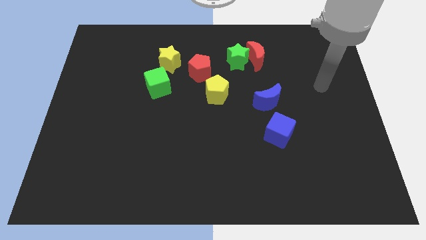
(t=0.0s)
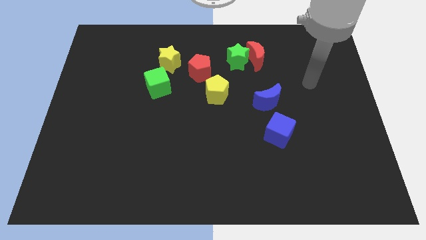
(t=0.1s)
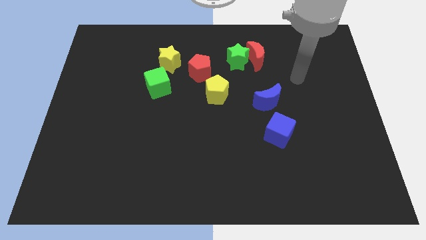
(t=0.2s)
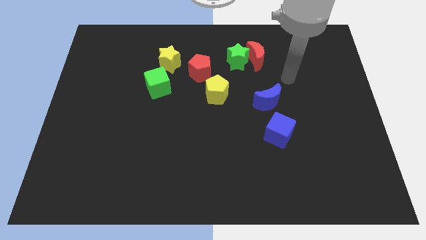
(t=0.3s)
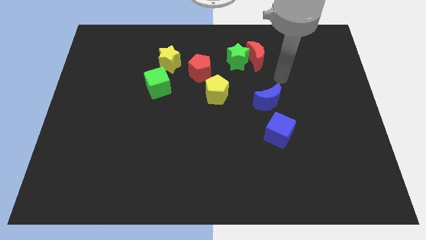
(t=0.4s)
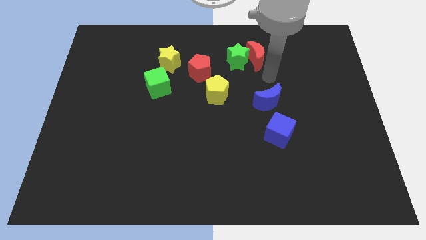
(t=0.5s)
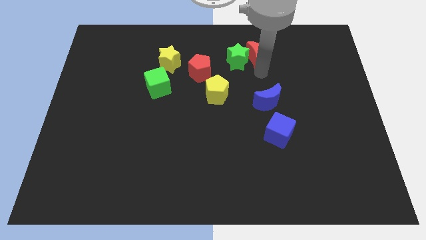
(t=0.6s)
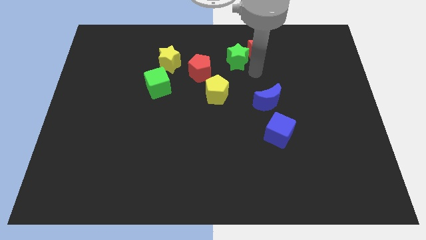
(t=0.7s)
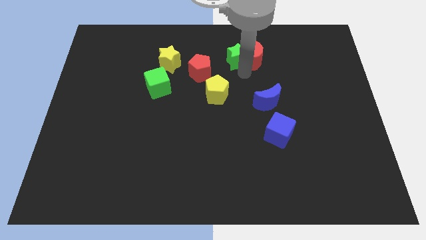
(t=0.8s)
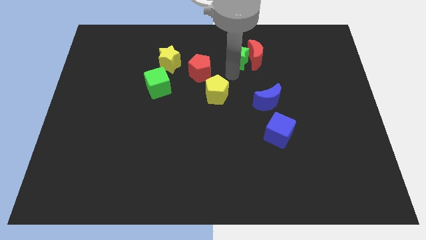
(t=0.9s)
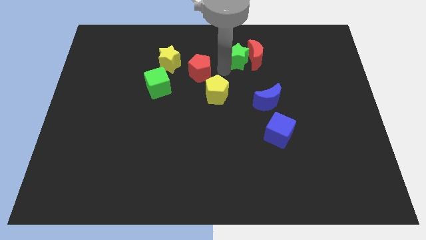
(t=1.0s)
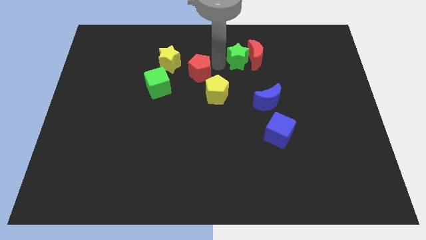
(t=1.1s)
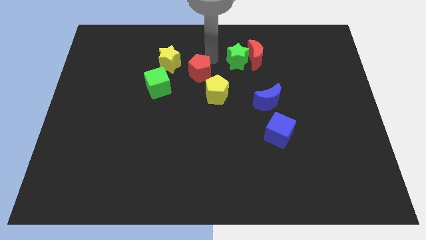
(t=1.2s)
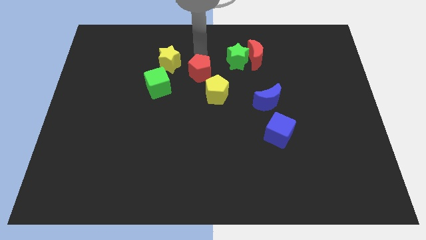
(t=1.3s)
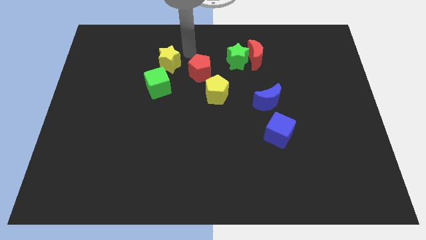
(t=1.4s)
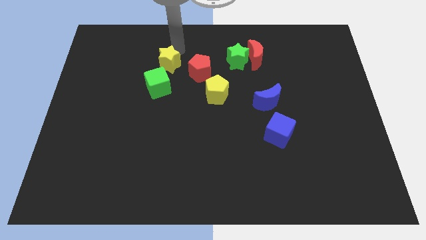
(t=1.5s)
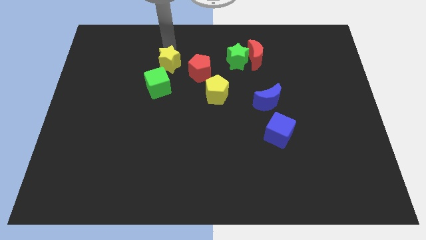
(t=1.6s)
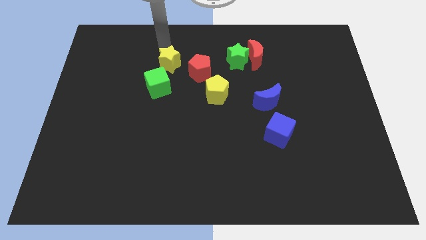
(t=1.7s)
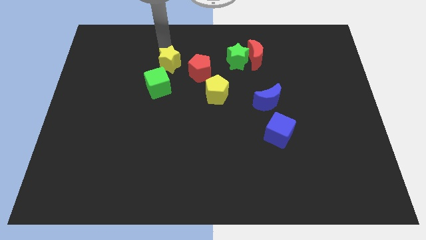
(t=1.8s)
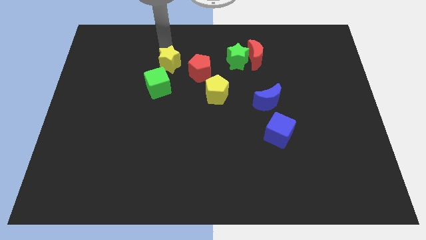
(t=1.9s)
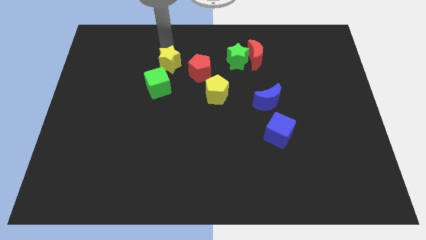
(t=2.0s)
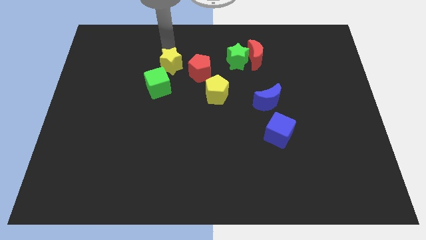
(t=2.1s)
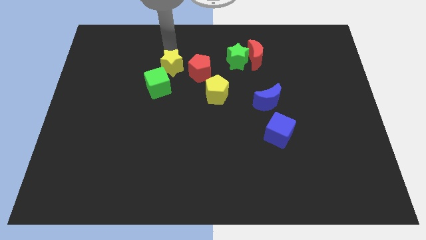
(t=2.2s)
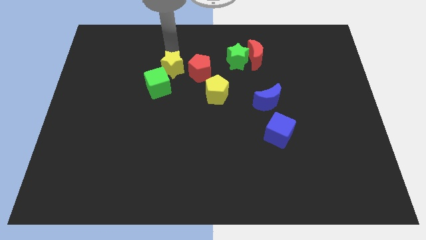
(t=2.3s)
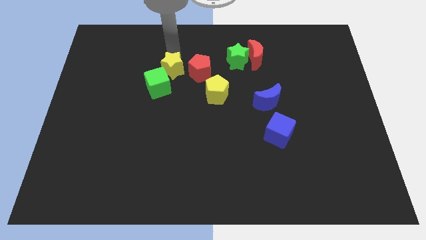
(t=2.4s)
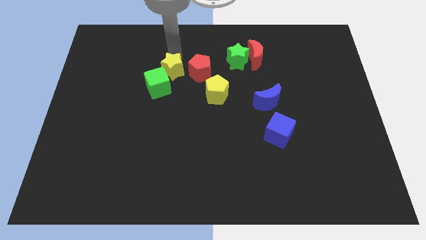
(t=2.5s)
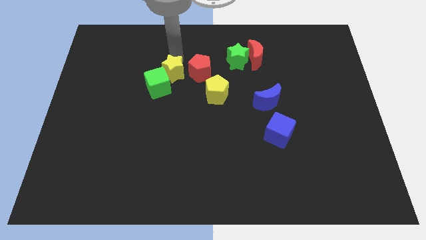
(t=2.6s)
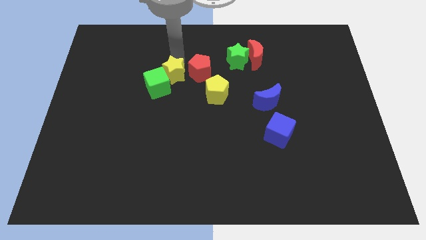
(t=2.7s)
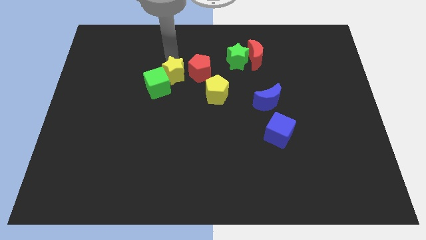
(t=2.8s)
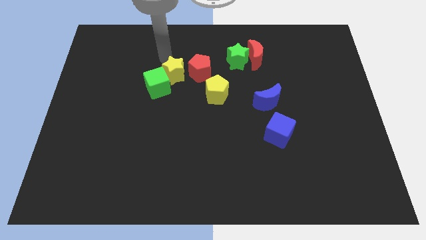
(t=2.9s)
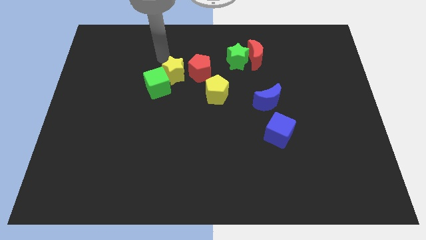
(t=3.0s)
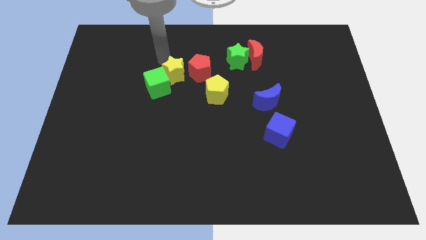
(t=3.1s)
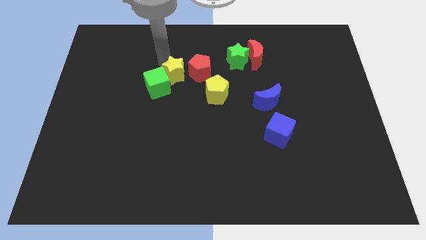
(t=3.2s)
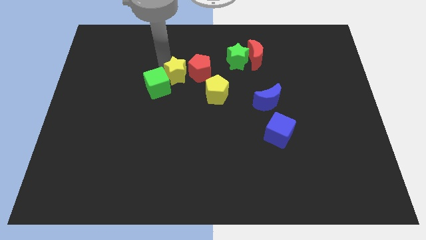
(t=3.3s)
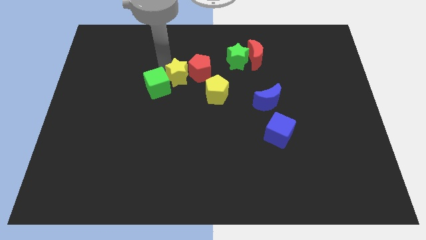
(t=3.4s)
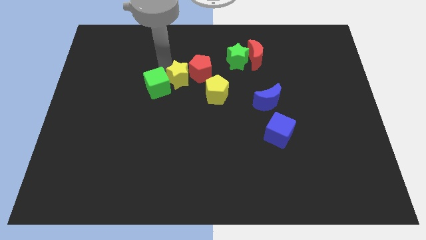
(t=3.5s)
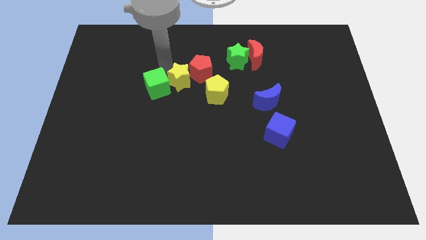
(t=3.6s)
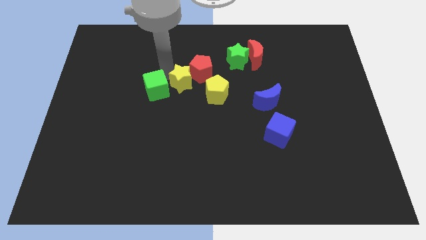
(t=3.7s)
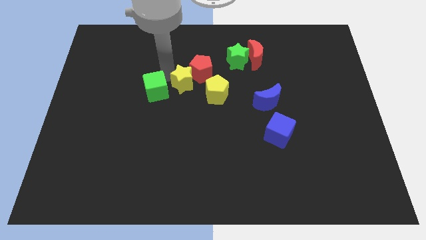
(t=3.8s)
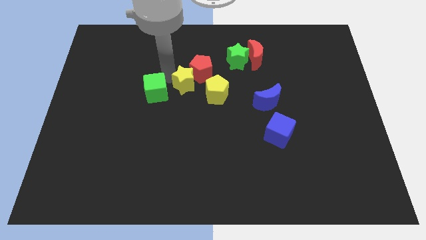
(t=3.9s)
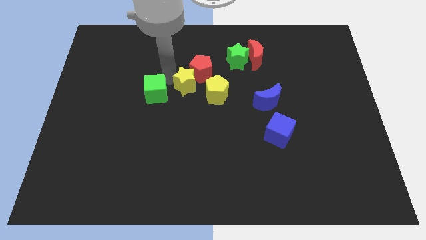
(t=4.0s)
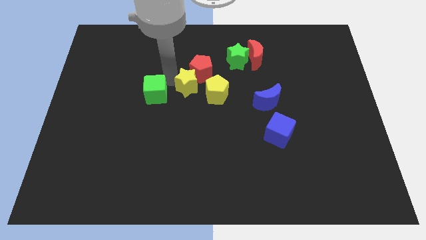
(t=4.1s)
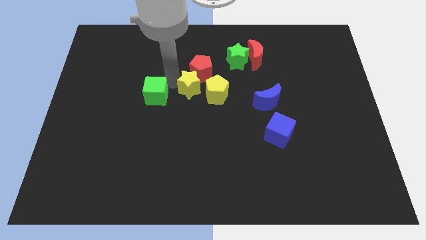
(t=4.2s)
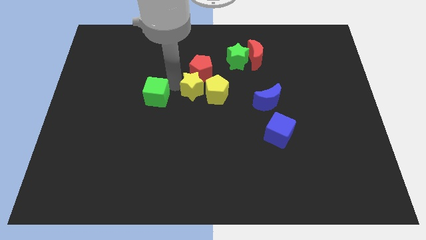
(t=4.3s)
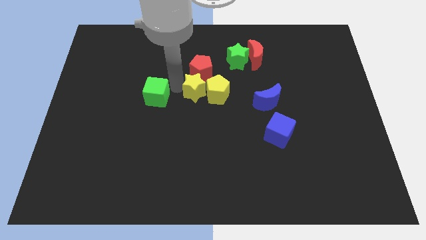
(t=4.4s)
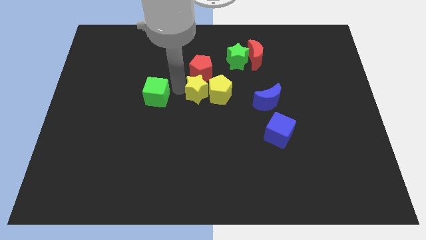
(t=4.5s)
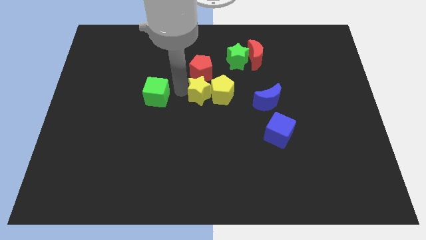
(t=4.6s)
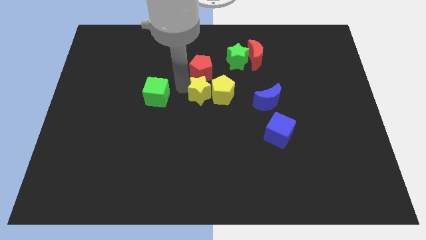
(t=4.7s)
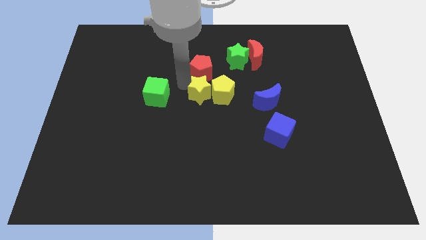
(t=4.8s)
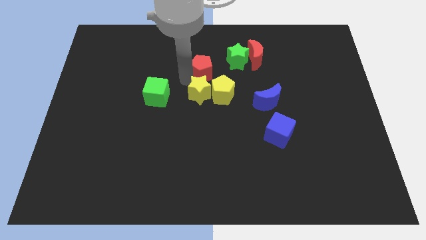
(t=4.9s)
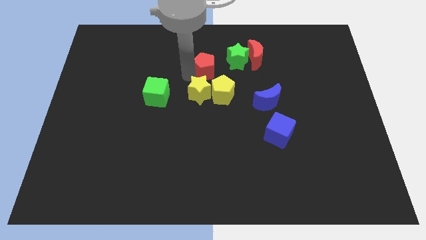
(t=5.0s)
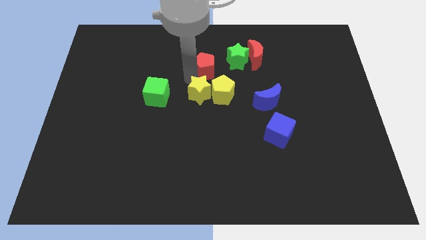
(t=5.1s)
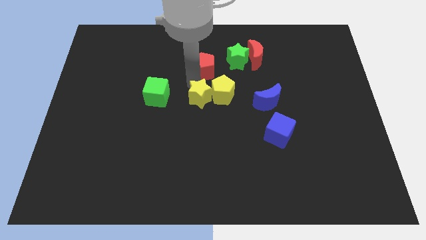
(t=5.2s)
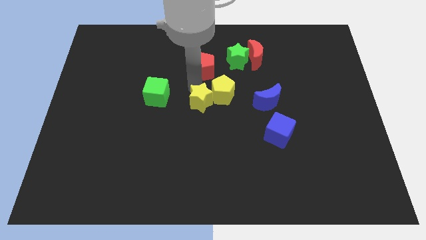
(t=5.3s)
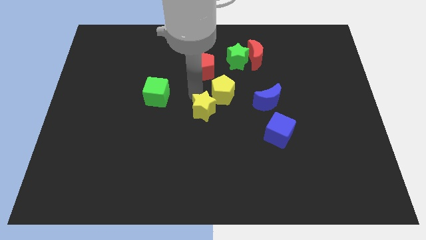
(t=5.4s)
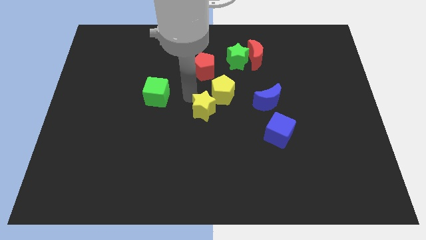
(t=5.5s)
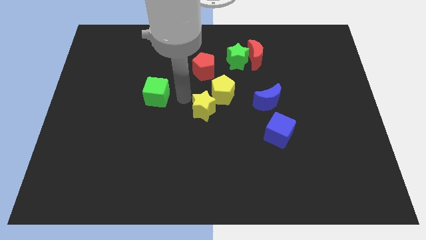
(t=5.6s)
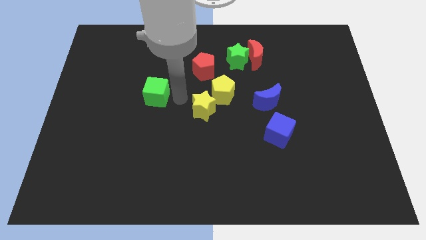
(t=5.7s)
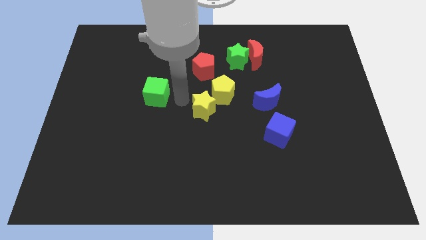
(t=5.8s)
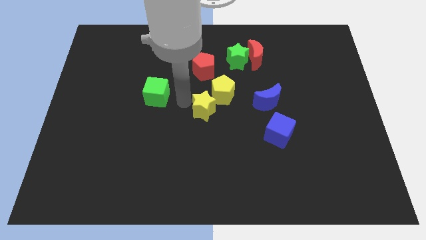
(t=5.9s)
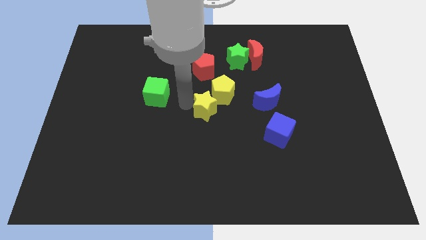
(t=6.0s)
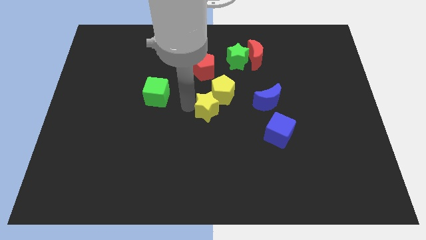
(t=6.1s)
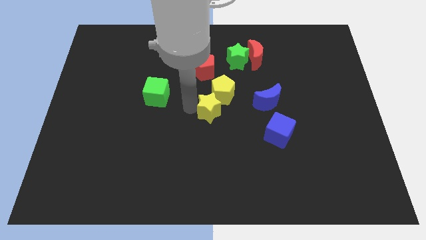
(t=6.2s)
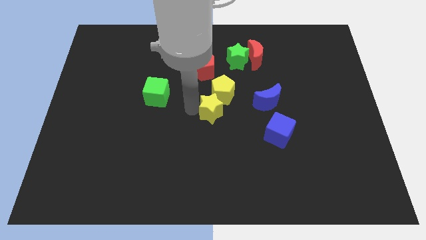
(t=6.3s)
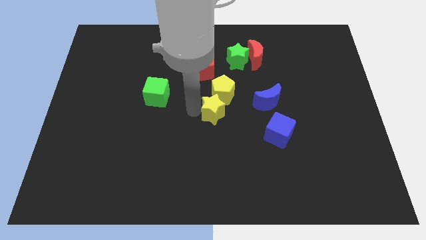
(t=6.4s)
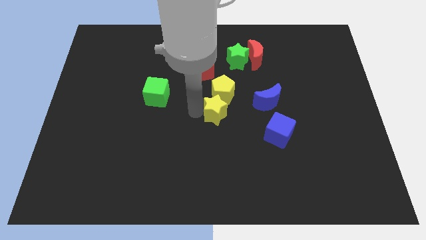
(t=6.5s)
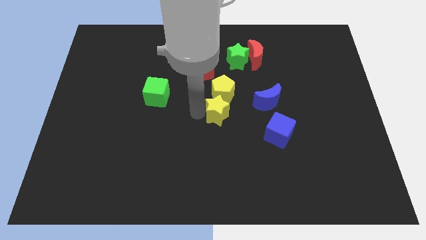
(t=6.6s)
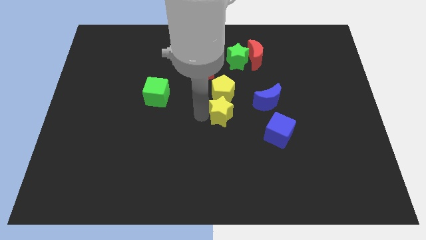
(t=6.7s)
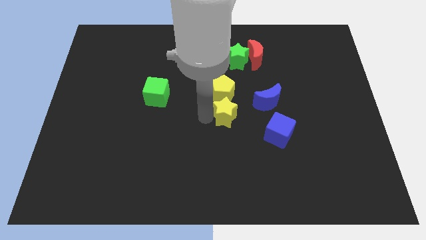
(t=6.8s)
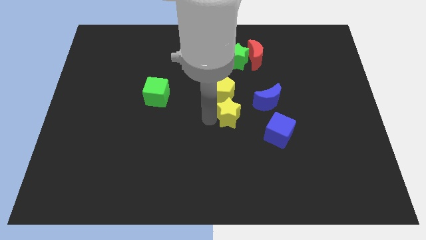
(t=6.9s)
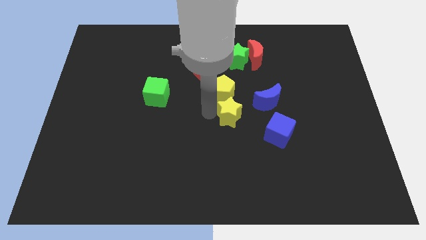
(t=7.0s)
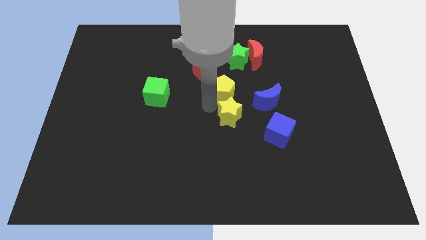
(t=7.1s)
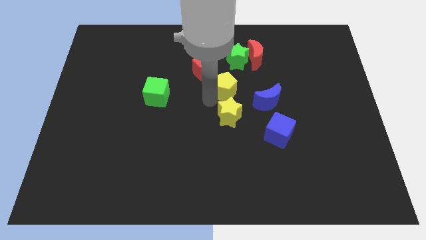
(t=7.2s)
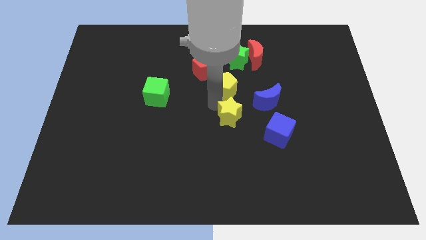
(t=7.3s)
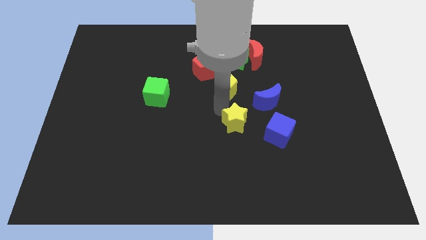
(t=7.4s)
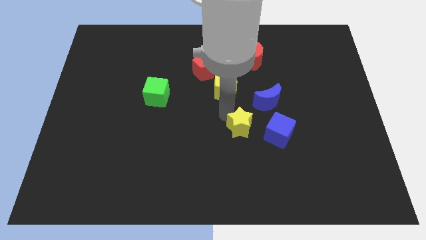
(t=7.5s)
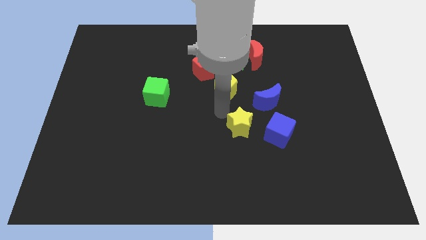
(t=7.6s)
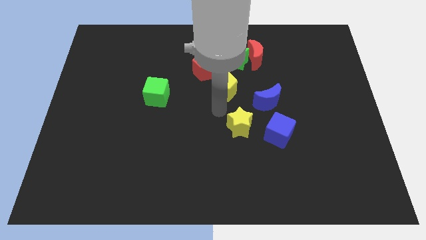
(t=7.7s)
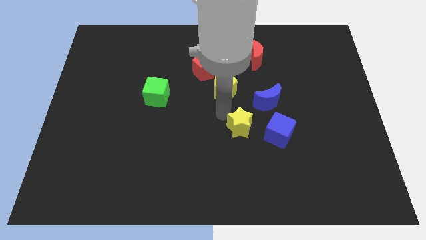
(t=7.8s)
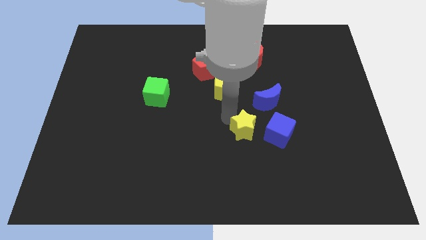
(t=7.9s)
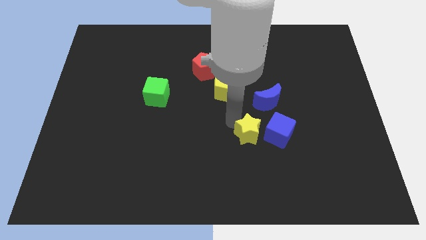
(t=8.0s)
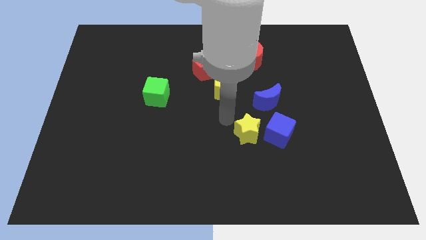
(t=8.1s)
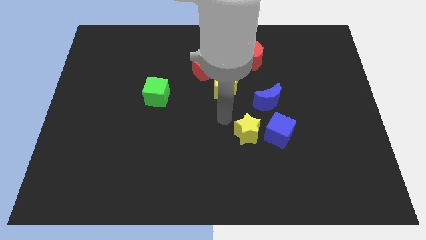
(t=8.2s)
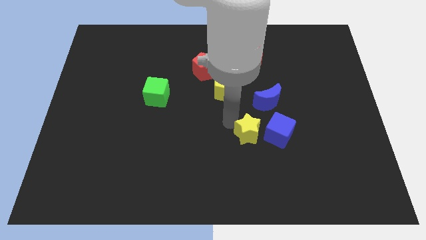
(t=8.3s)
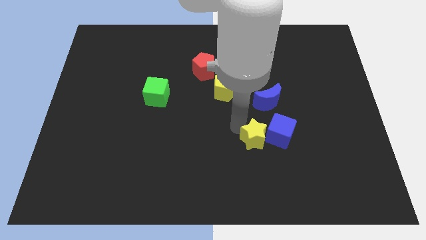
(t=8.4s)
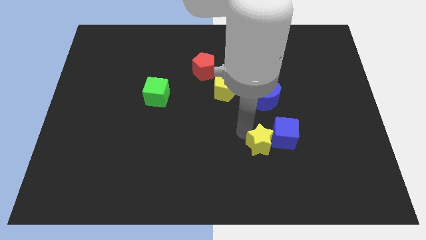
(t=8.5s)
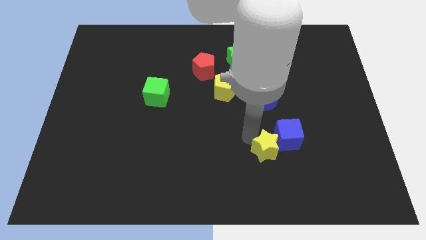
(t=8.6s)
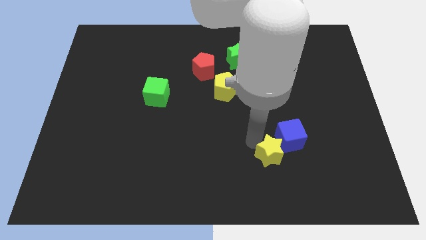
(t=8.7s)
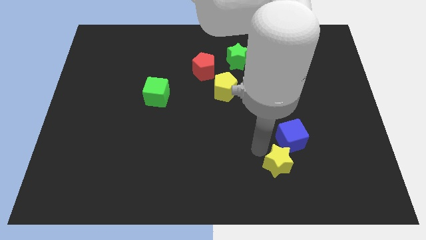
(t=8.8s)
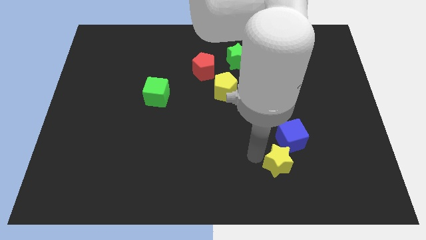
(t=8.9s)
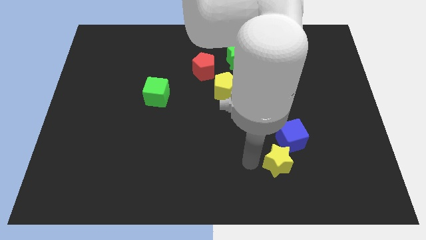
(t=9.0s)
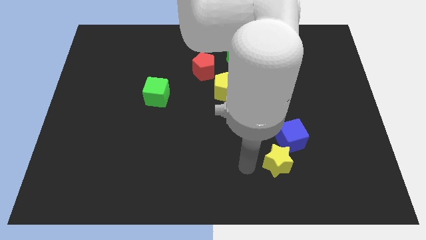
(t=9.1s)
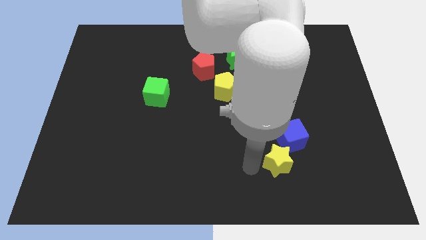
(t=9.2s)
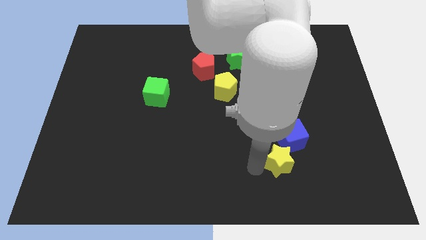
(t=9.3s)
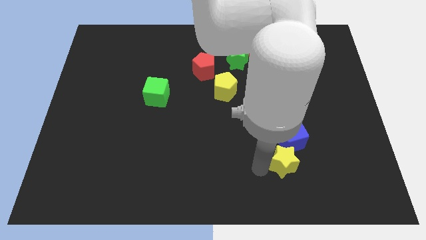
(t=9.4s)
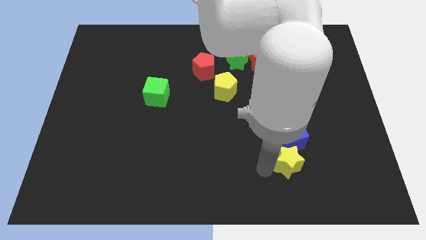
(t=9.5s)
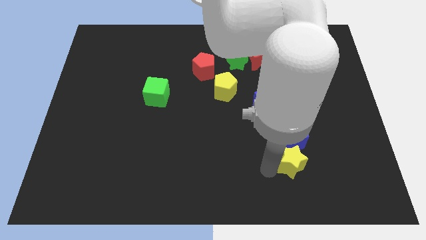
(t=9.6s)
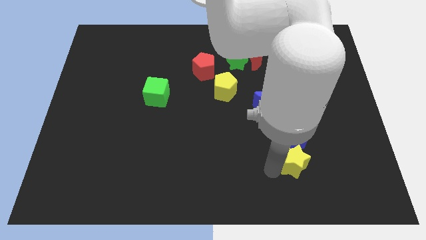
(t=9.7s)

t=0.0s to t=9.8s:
push the yellow star to the bottom right of the blue cube
